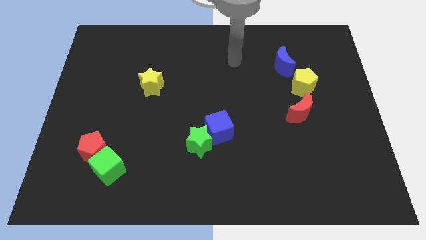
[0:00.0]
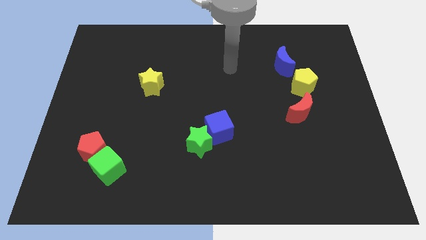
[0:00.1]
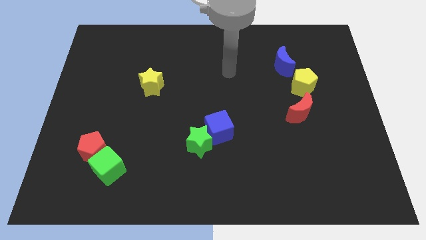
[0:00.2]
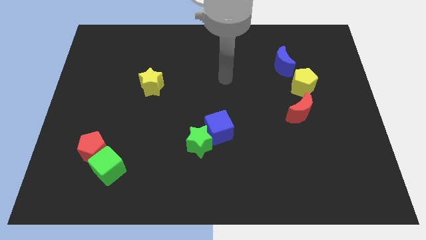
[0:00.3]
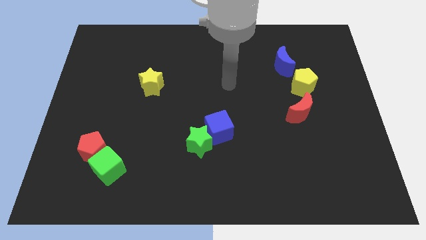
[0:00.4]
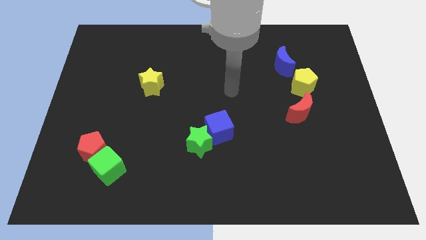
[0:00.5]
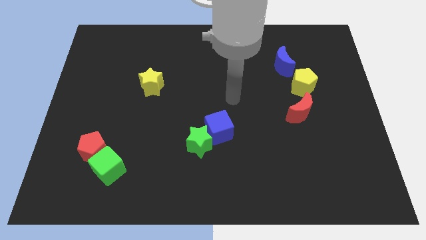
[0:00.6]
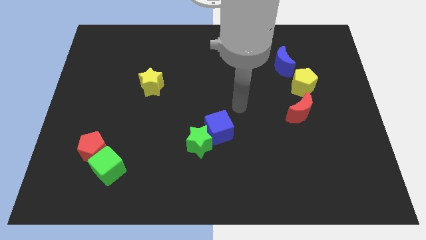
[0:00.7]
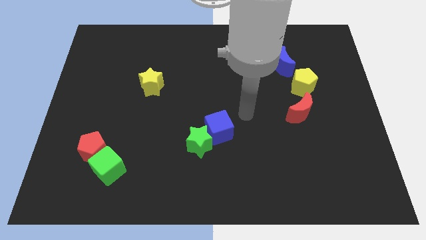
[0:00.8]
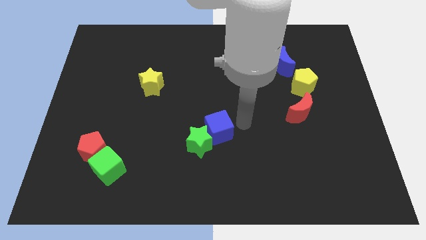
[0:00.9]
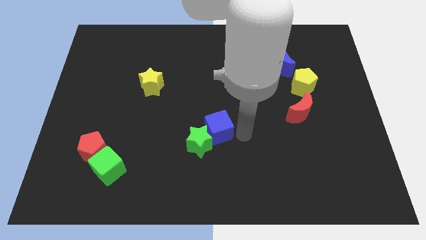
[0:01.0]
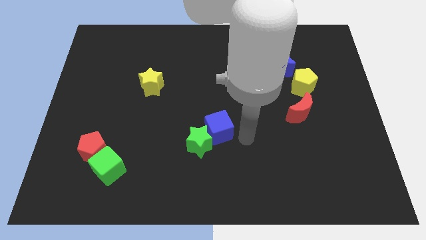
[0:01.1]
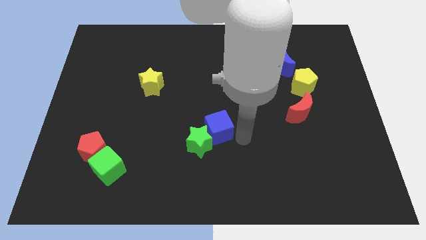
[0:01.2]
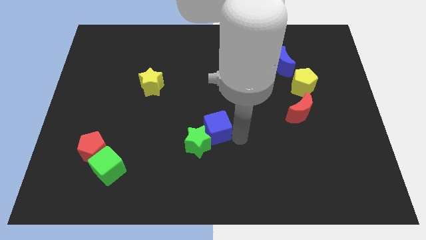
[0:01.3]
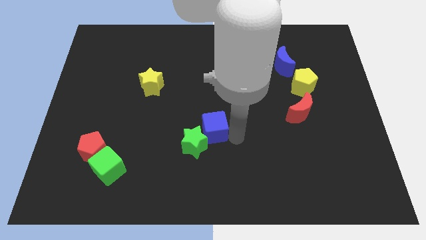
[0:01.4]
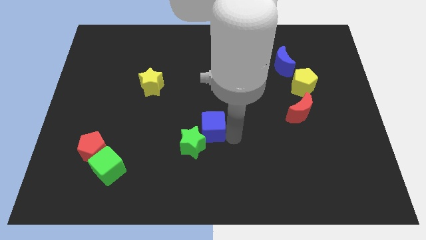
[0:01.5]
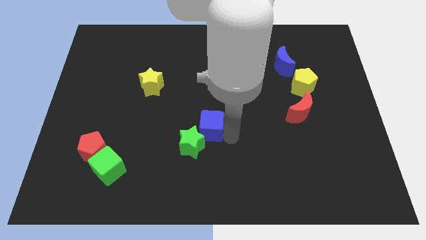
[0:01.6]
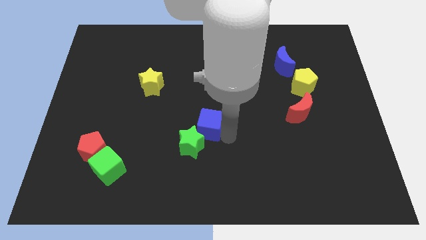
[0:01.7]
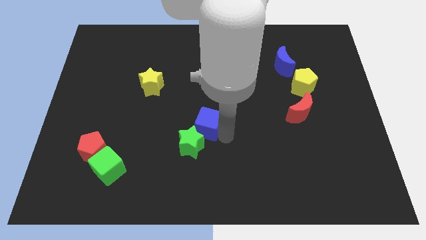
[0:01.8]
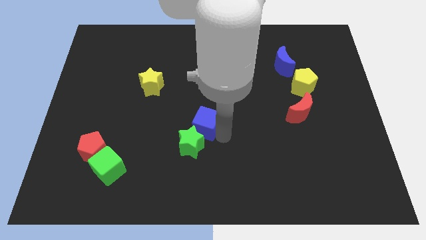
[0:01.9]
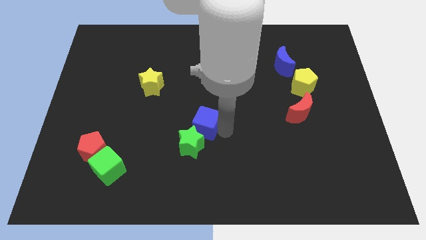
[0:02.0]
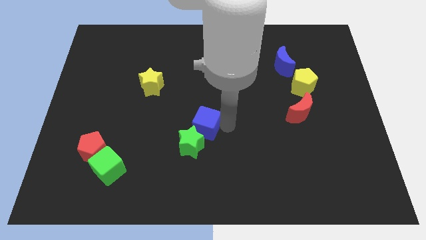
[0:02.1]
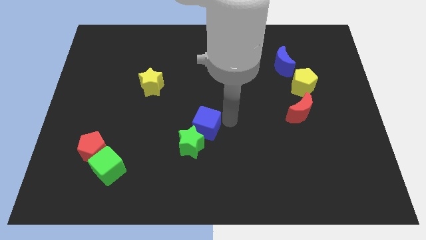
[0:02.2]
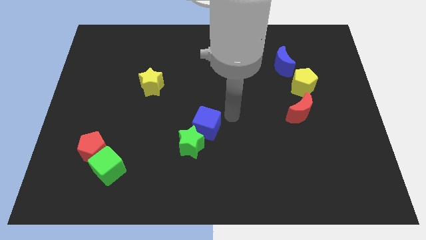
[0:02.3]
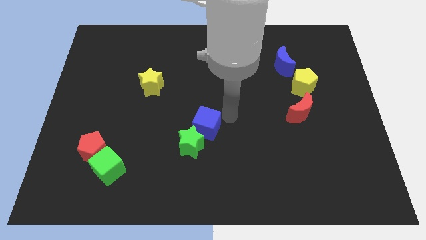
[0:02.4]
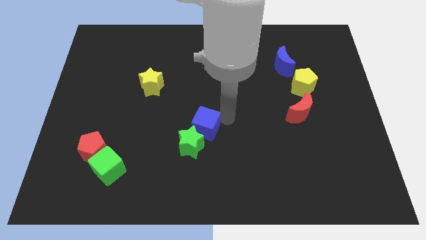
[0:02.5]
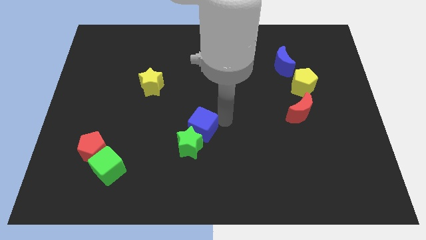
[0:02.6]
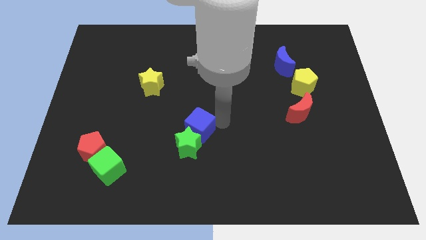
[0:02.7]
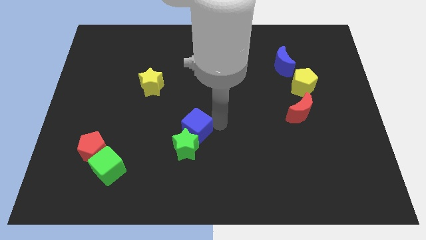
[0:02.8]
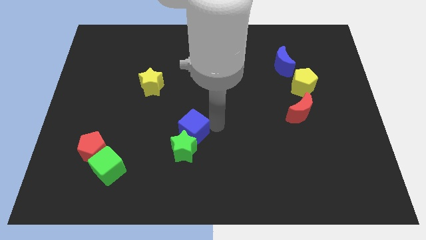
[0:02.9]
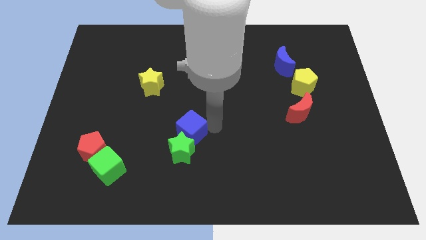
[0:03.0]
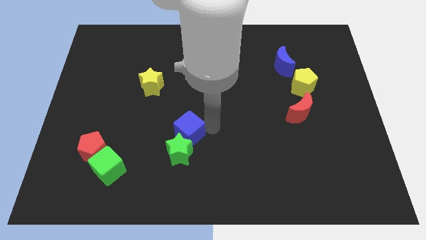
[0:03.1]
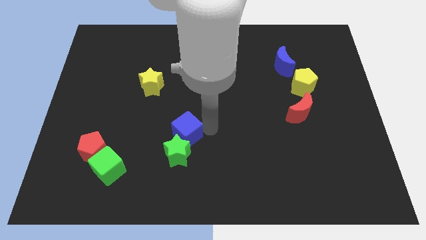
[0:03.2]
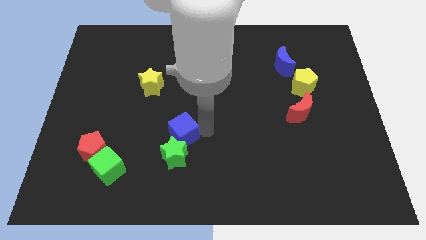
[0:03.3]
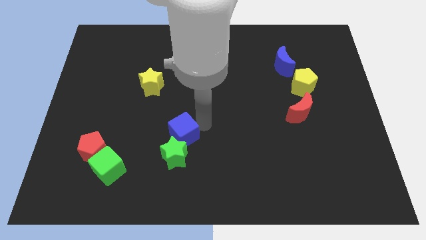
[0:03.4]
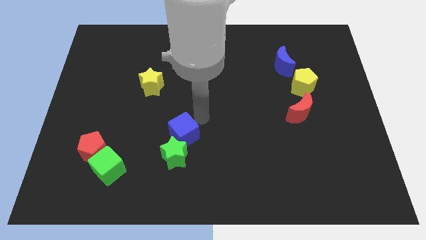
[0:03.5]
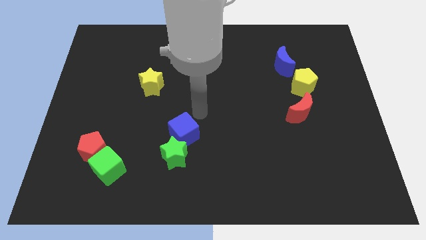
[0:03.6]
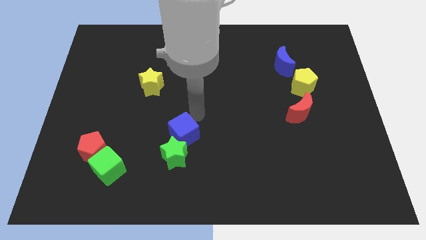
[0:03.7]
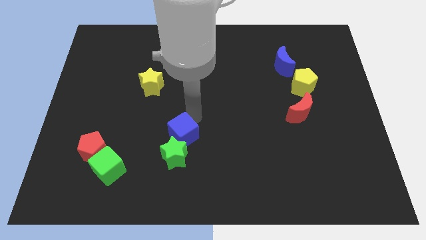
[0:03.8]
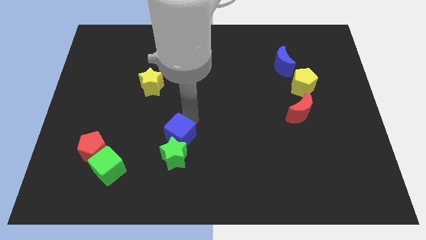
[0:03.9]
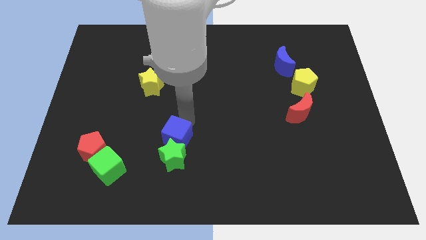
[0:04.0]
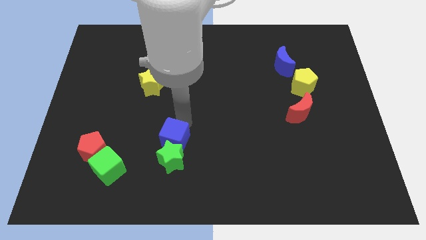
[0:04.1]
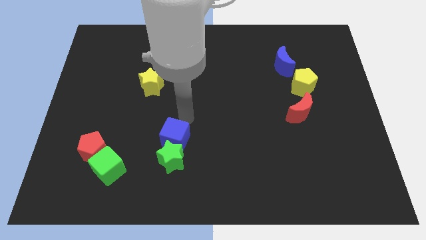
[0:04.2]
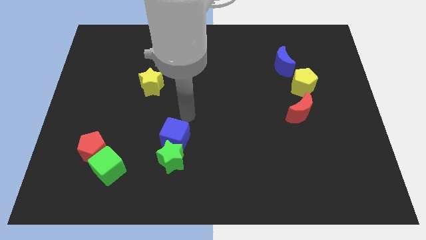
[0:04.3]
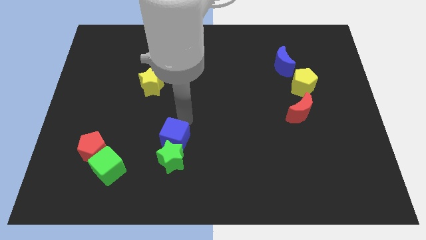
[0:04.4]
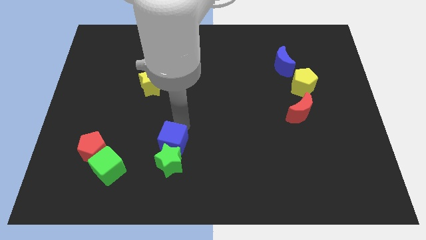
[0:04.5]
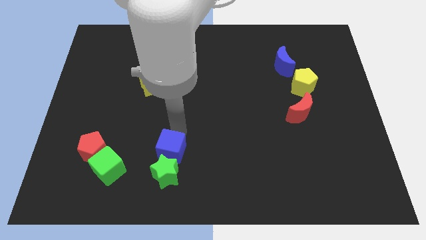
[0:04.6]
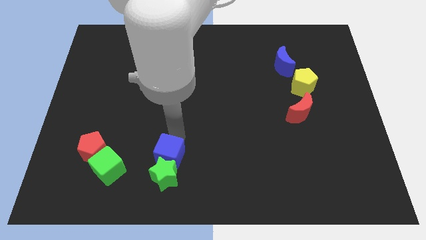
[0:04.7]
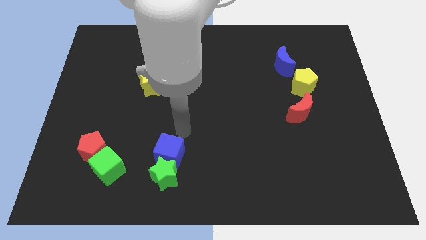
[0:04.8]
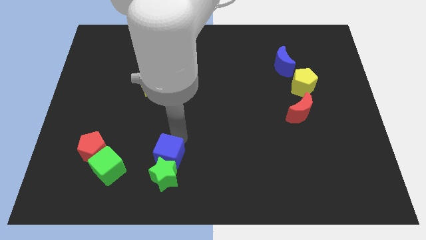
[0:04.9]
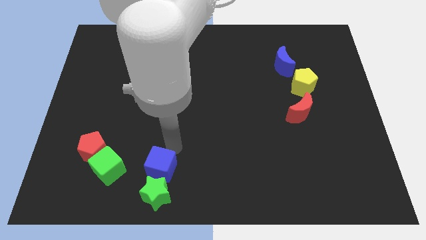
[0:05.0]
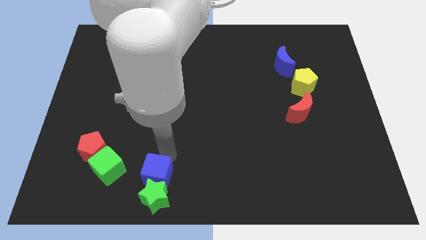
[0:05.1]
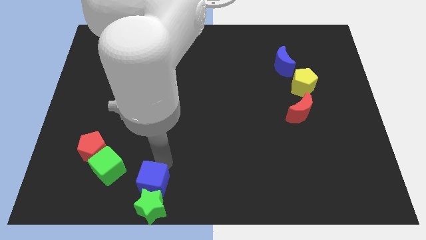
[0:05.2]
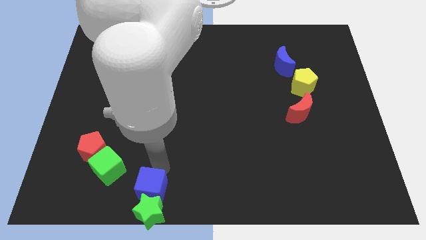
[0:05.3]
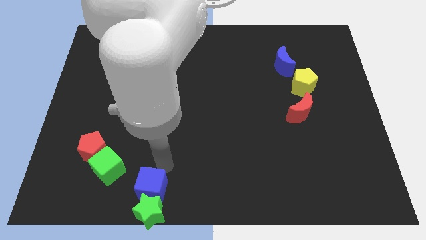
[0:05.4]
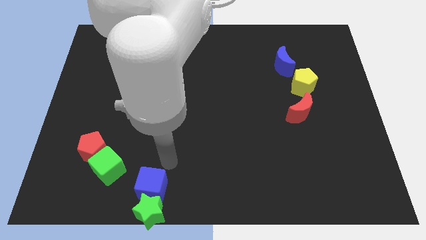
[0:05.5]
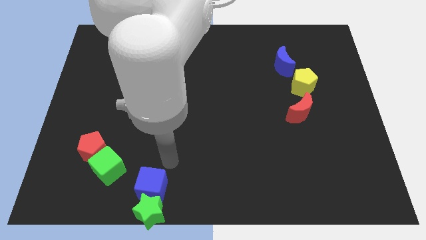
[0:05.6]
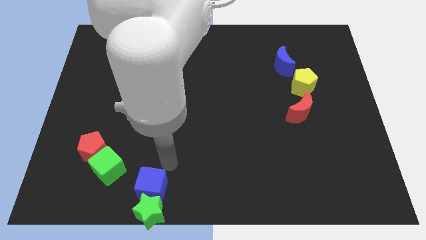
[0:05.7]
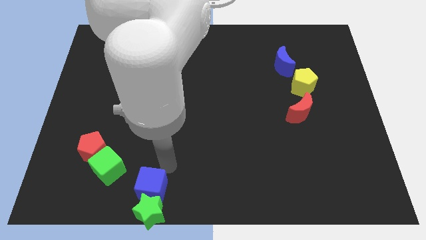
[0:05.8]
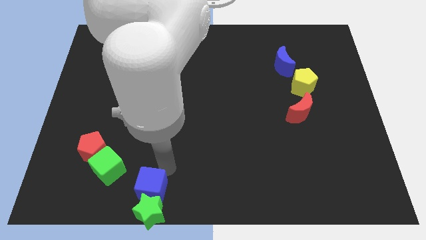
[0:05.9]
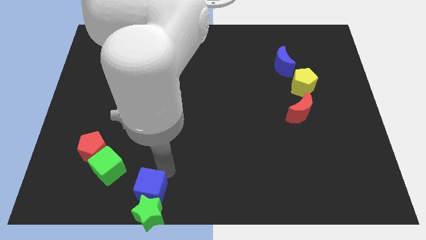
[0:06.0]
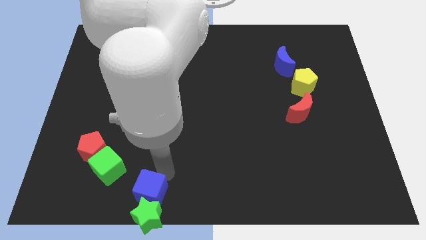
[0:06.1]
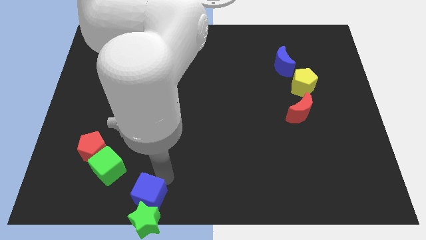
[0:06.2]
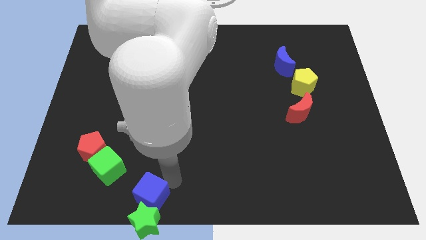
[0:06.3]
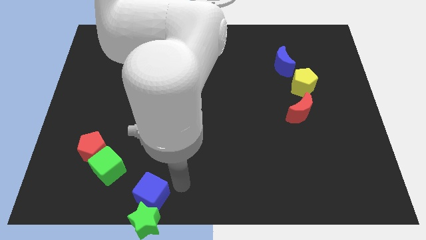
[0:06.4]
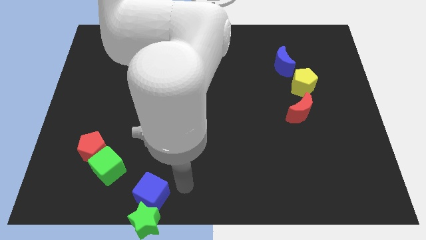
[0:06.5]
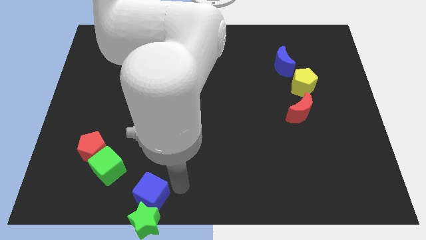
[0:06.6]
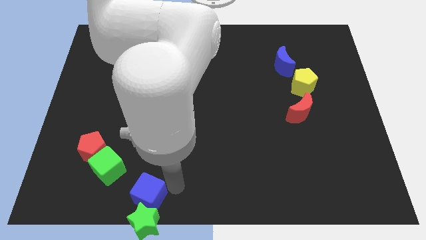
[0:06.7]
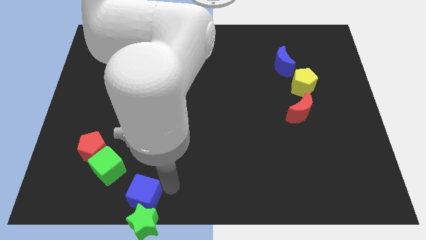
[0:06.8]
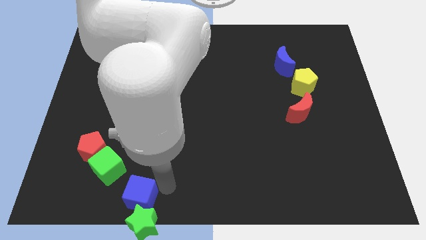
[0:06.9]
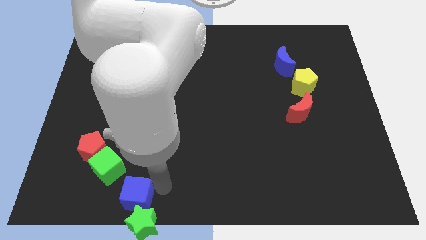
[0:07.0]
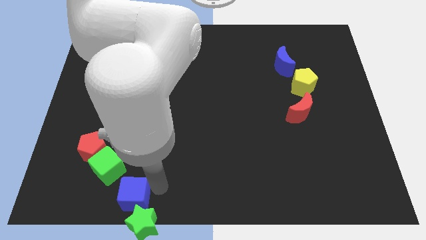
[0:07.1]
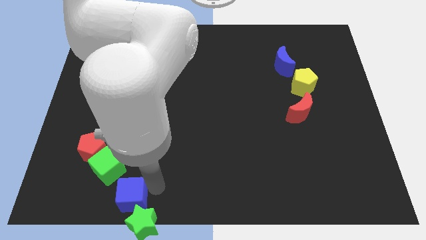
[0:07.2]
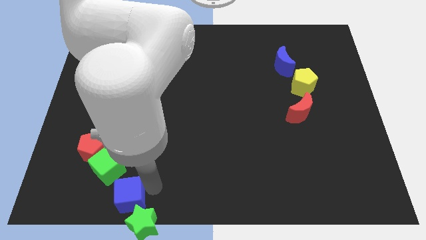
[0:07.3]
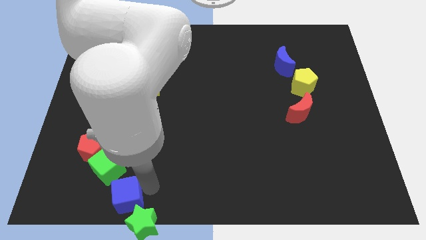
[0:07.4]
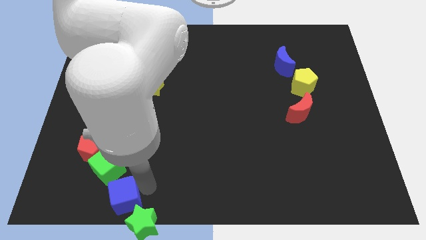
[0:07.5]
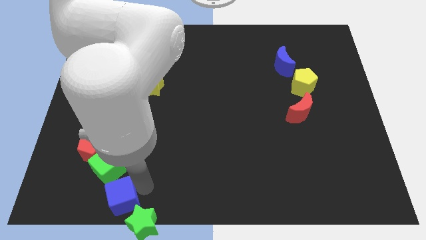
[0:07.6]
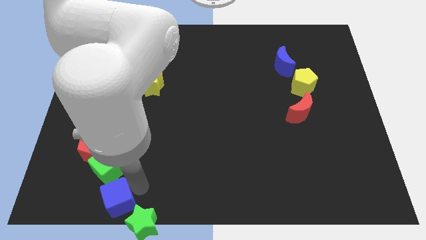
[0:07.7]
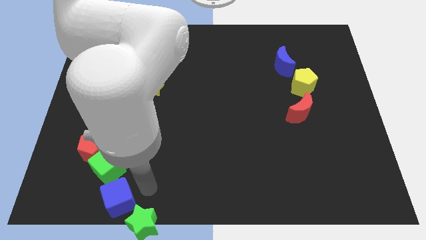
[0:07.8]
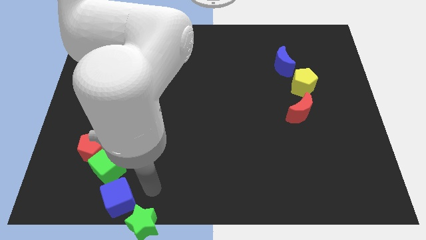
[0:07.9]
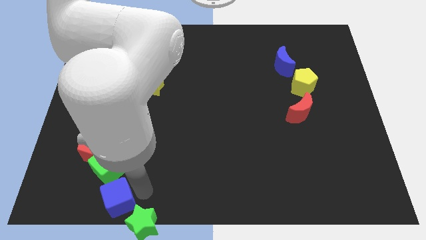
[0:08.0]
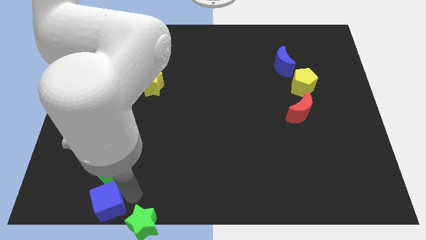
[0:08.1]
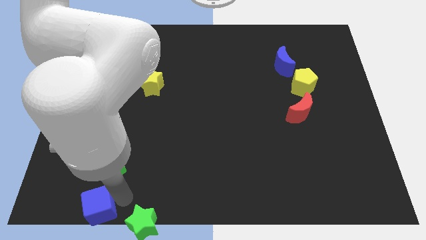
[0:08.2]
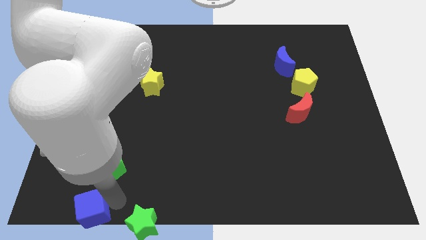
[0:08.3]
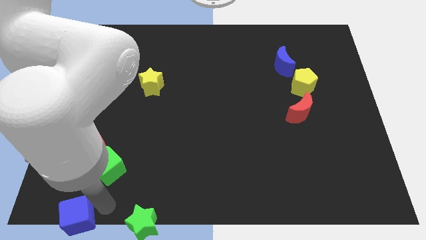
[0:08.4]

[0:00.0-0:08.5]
put the blue cube to the bottom left of the board
